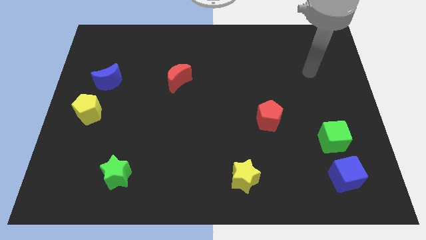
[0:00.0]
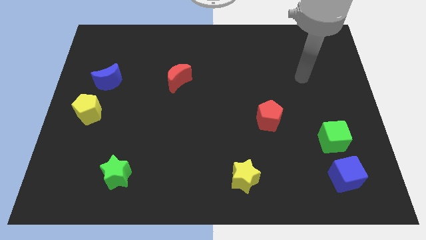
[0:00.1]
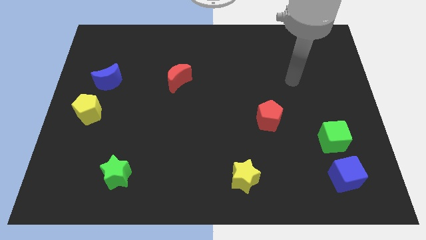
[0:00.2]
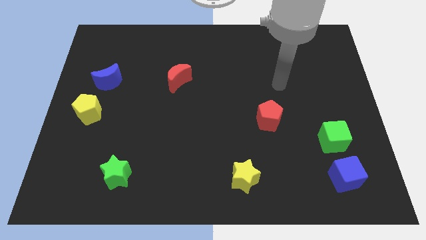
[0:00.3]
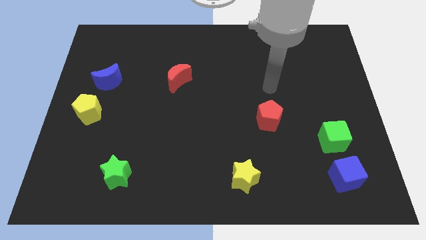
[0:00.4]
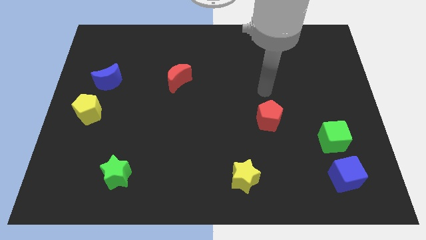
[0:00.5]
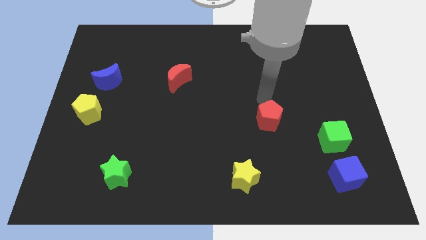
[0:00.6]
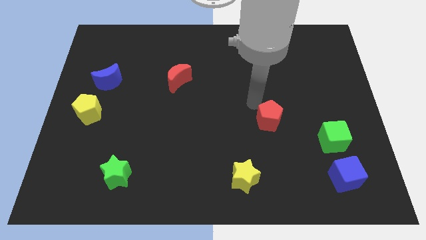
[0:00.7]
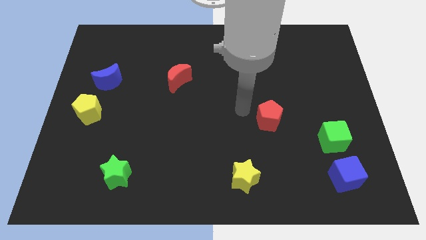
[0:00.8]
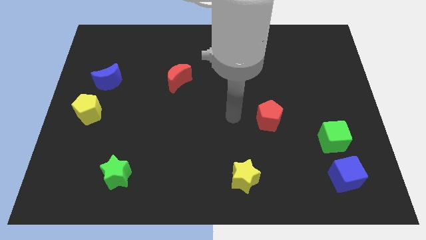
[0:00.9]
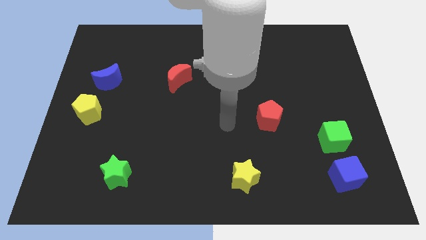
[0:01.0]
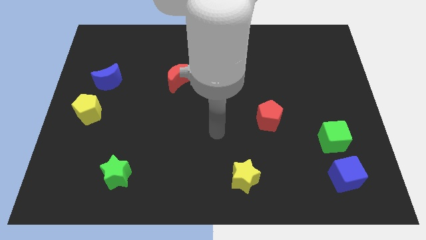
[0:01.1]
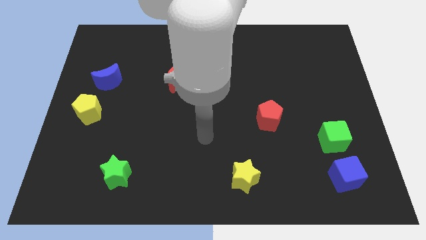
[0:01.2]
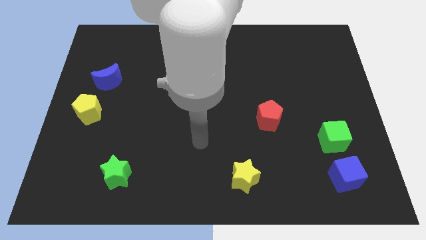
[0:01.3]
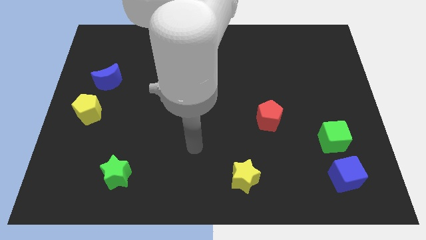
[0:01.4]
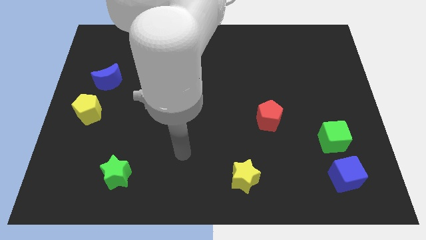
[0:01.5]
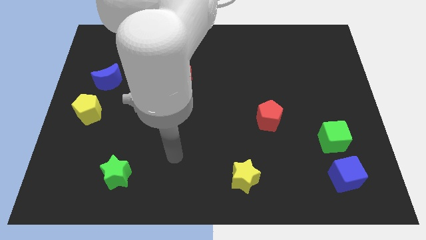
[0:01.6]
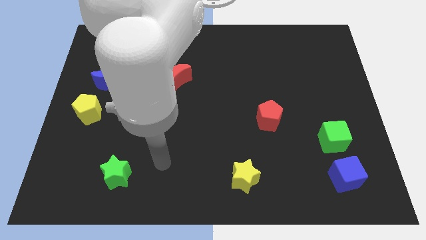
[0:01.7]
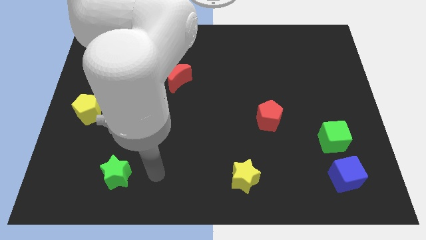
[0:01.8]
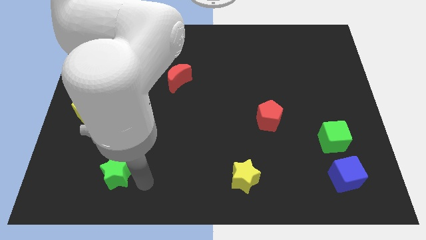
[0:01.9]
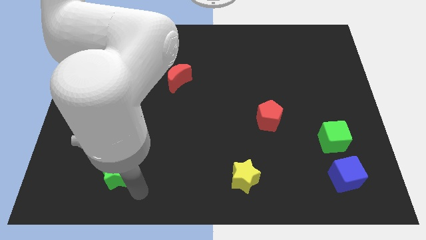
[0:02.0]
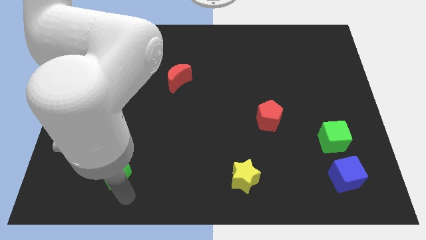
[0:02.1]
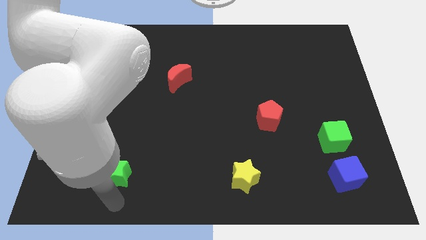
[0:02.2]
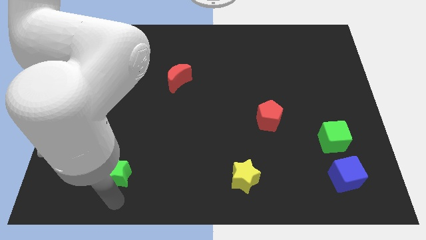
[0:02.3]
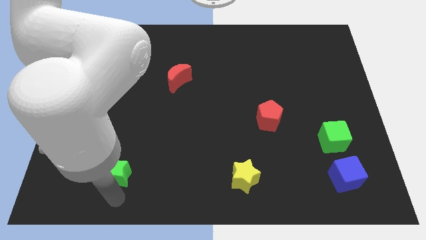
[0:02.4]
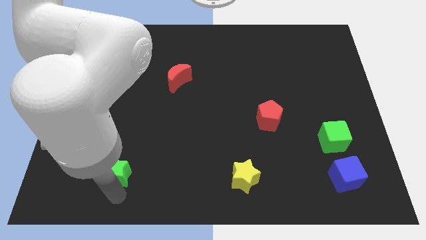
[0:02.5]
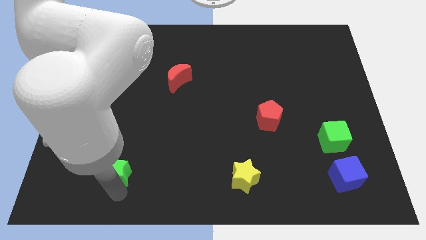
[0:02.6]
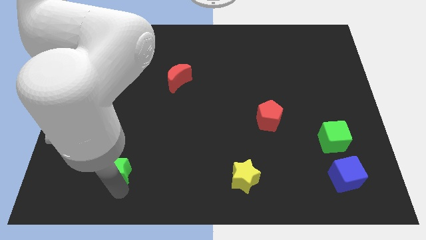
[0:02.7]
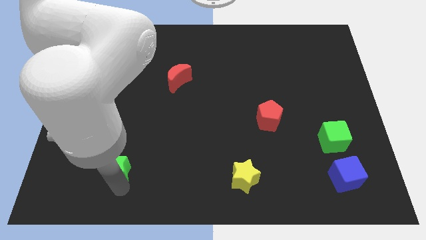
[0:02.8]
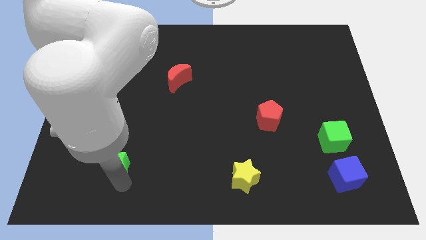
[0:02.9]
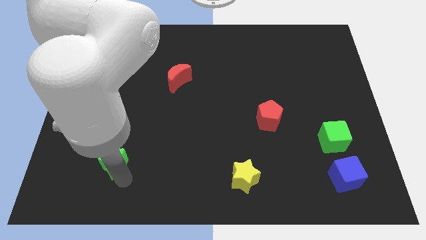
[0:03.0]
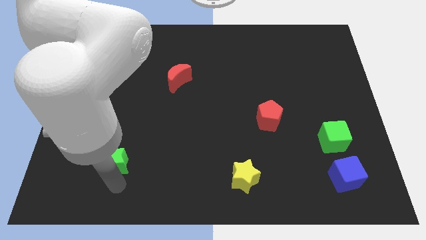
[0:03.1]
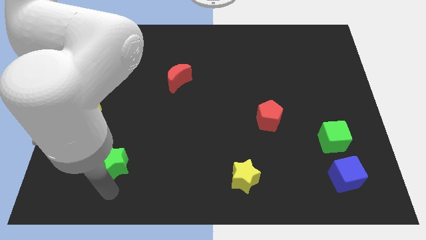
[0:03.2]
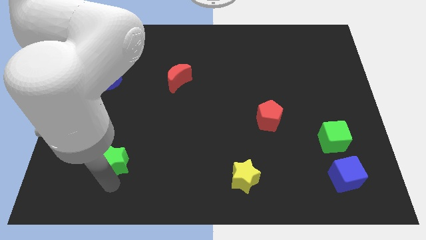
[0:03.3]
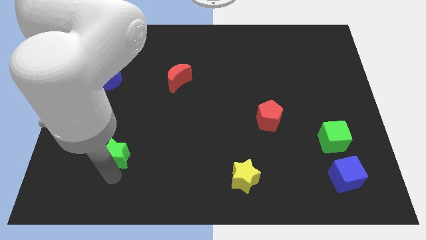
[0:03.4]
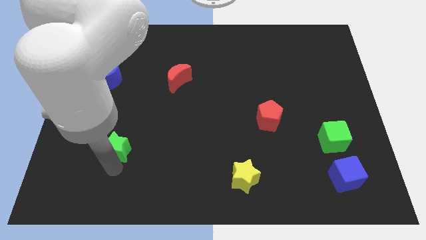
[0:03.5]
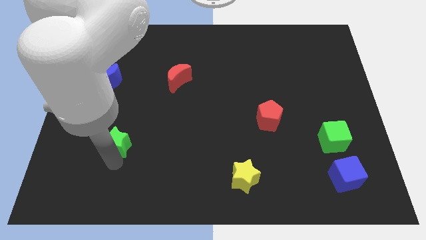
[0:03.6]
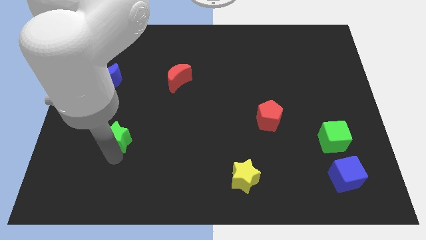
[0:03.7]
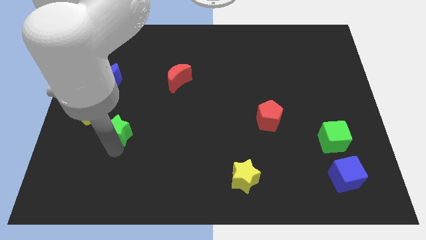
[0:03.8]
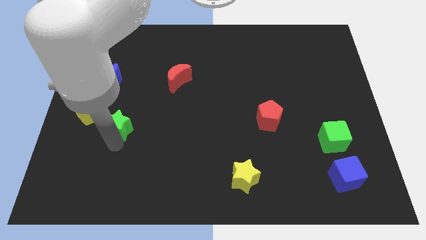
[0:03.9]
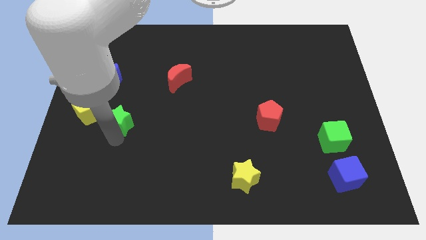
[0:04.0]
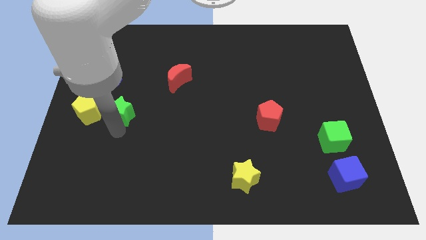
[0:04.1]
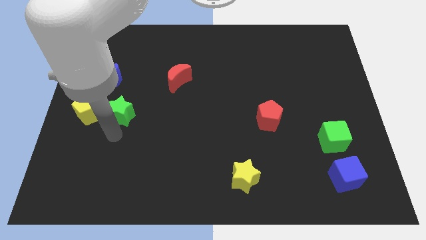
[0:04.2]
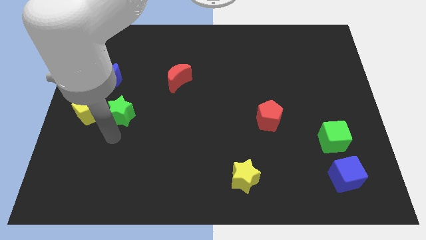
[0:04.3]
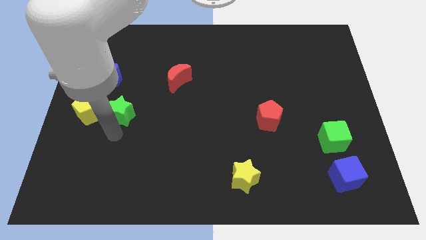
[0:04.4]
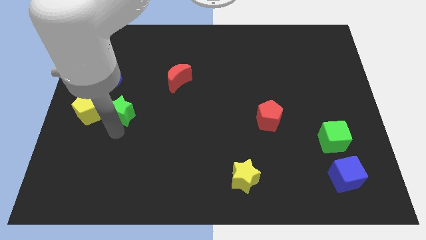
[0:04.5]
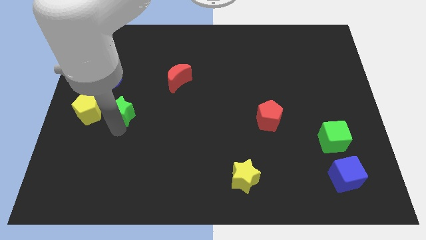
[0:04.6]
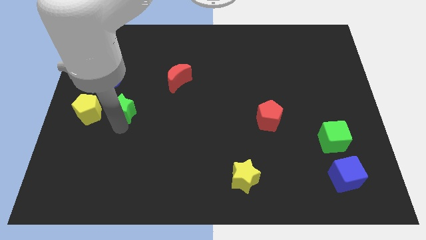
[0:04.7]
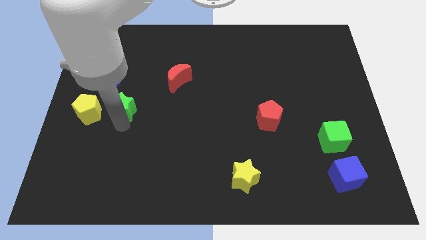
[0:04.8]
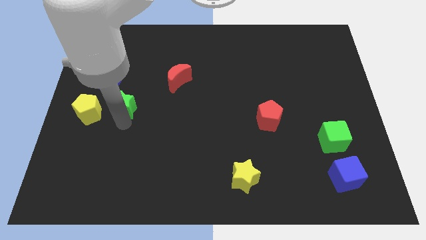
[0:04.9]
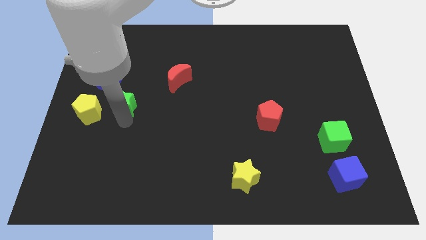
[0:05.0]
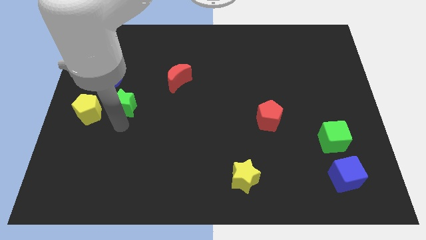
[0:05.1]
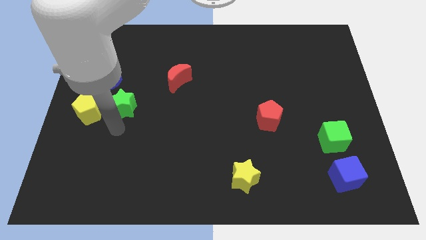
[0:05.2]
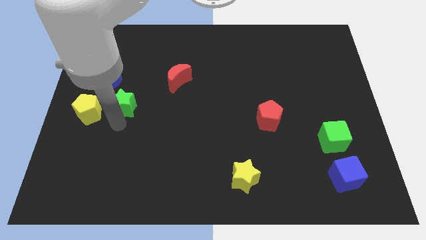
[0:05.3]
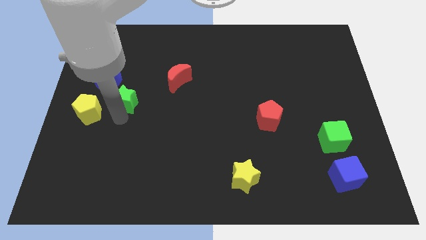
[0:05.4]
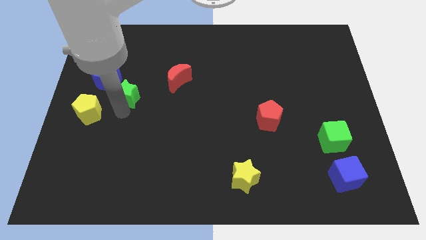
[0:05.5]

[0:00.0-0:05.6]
slide the green star upwards

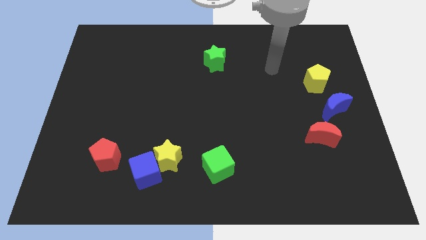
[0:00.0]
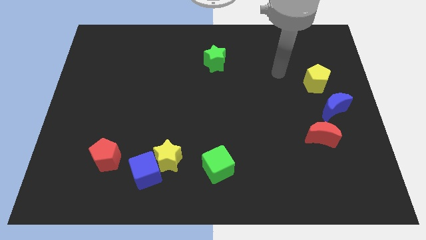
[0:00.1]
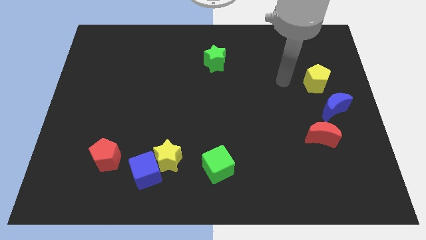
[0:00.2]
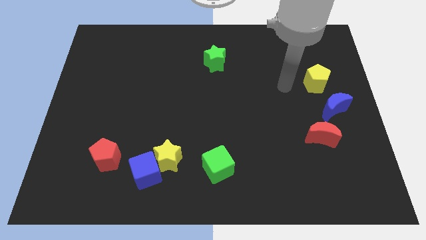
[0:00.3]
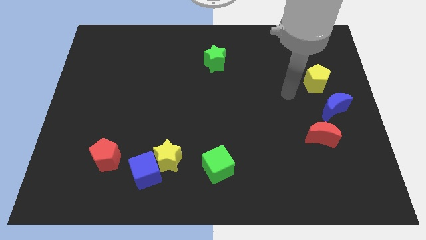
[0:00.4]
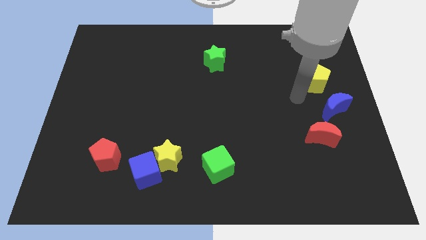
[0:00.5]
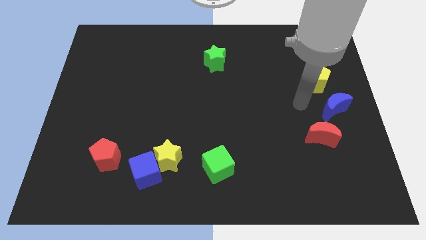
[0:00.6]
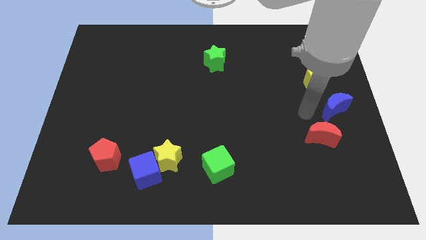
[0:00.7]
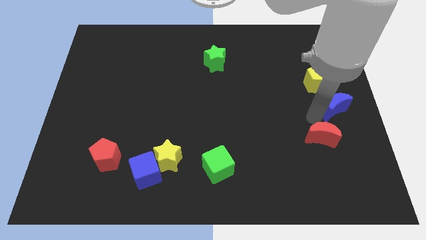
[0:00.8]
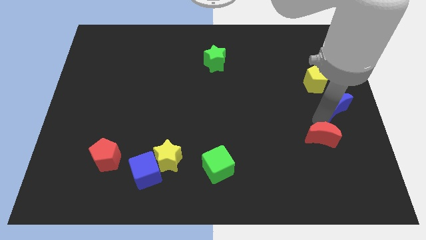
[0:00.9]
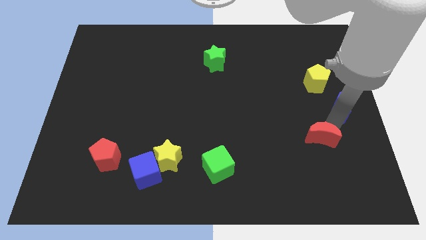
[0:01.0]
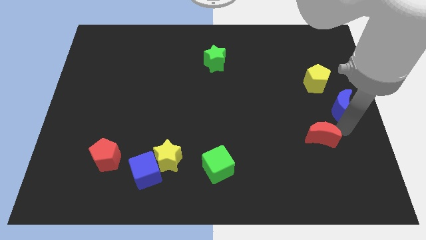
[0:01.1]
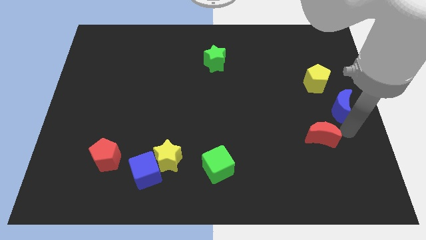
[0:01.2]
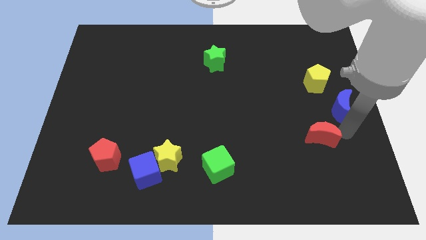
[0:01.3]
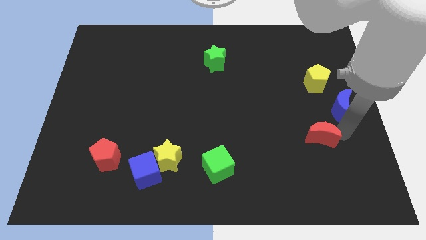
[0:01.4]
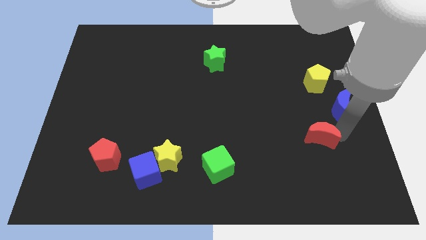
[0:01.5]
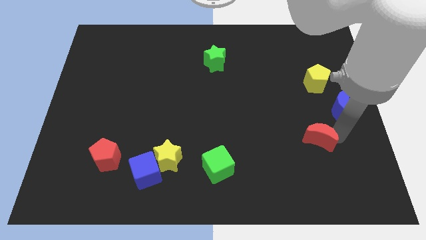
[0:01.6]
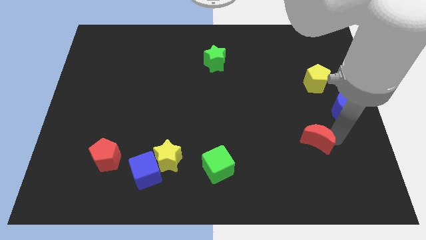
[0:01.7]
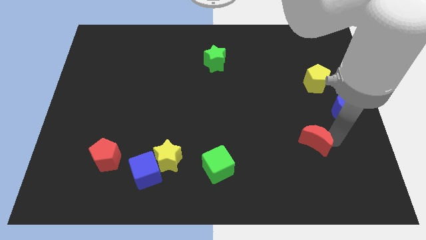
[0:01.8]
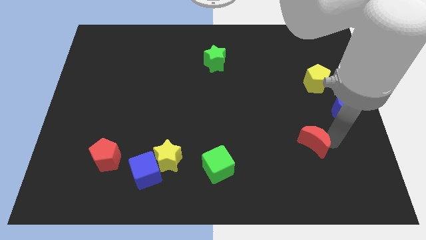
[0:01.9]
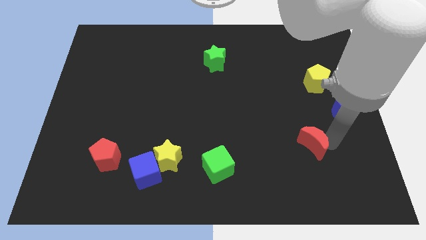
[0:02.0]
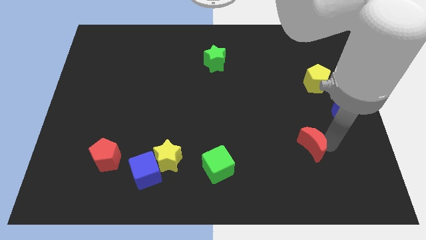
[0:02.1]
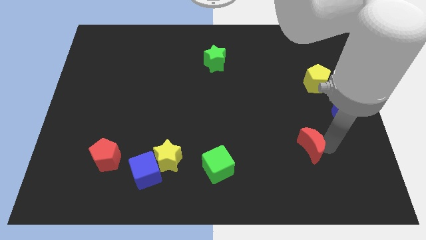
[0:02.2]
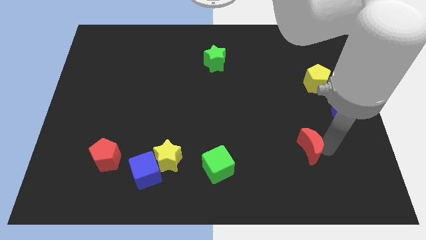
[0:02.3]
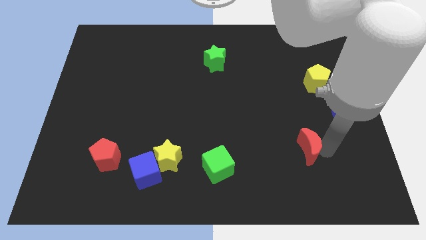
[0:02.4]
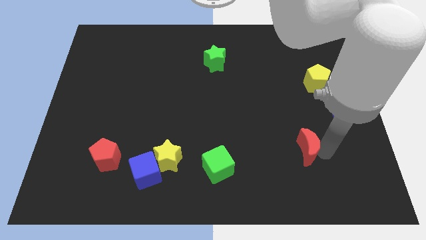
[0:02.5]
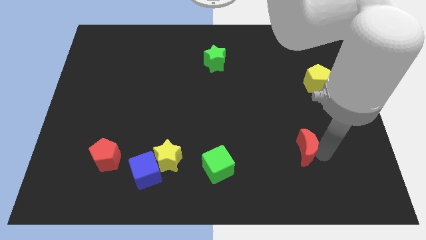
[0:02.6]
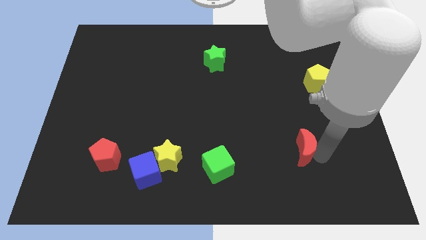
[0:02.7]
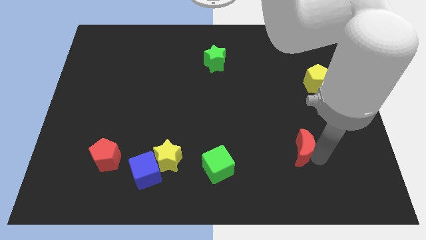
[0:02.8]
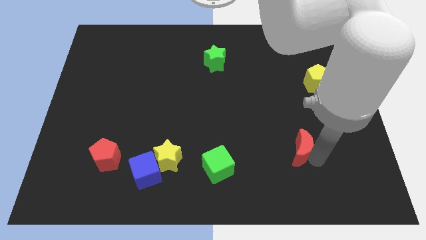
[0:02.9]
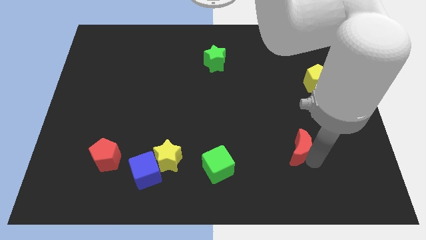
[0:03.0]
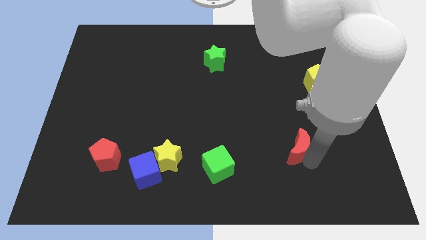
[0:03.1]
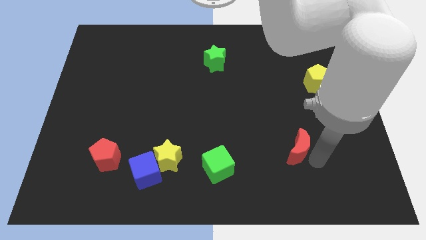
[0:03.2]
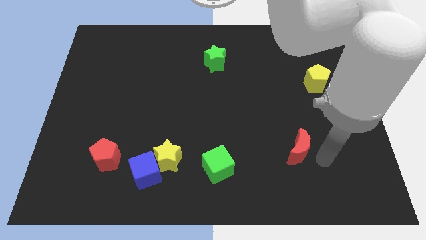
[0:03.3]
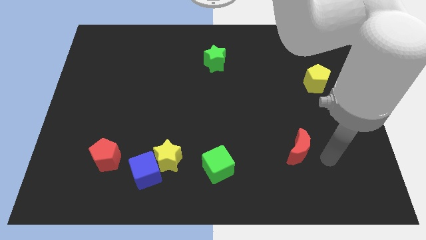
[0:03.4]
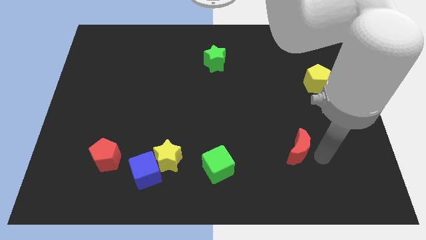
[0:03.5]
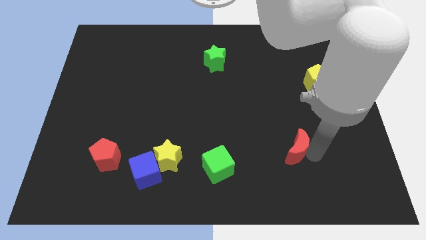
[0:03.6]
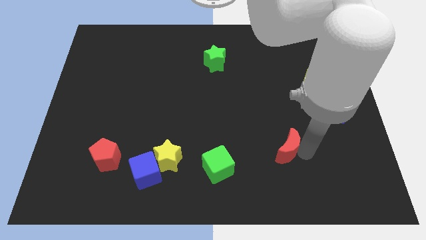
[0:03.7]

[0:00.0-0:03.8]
slightly slide the red moon left
